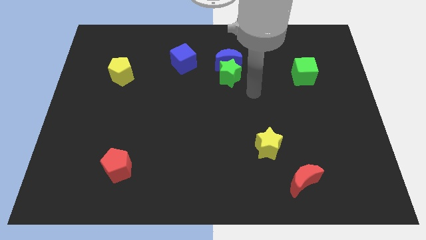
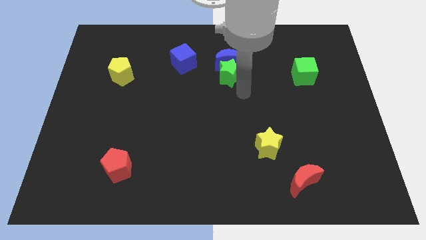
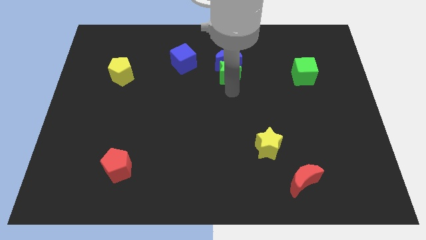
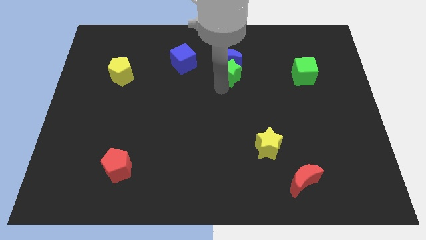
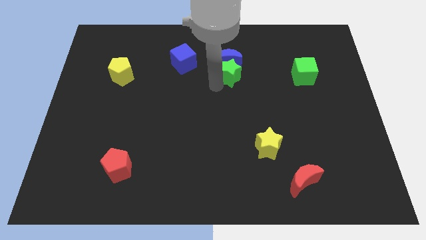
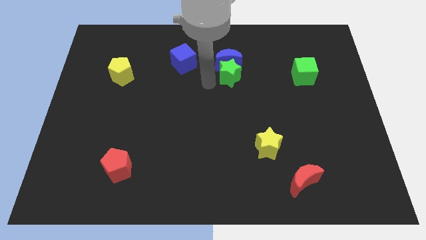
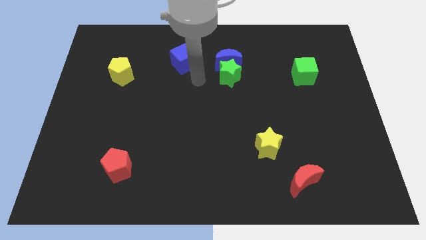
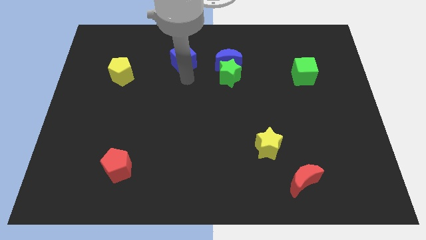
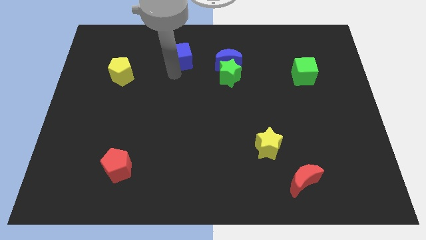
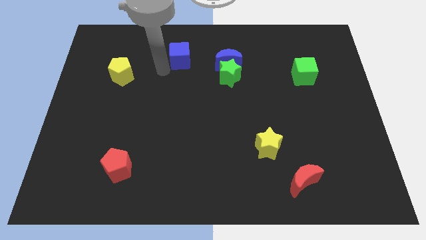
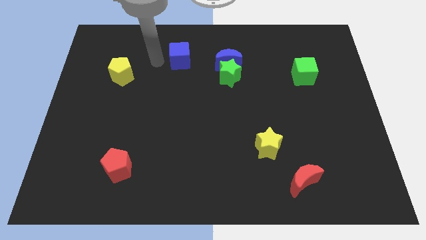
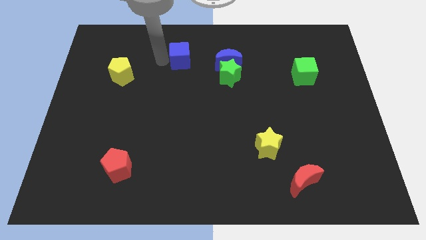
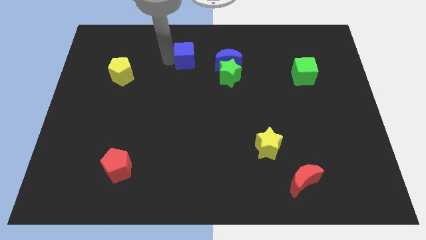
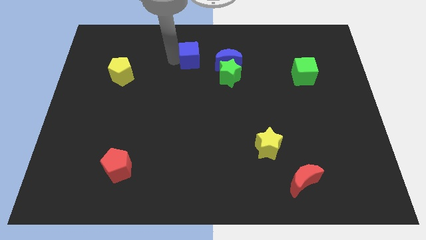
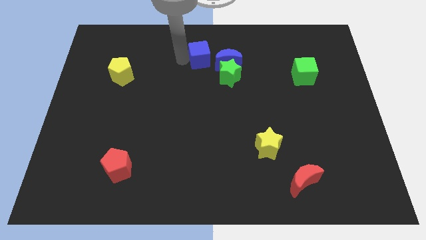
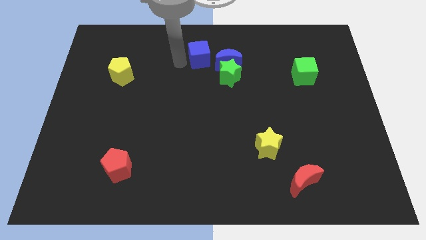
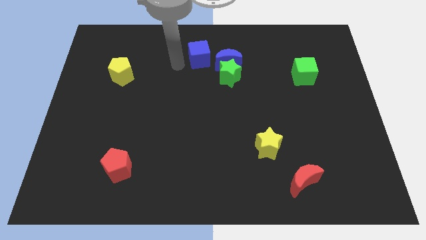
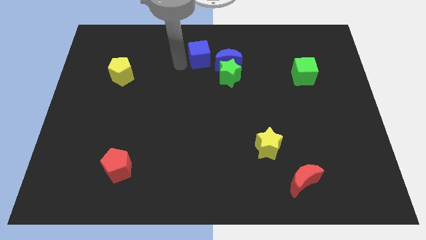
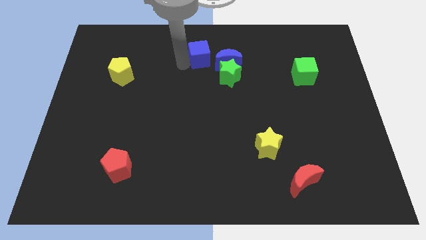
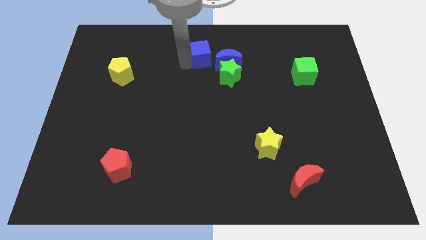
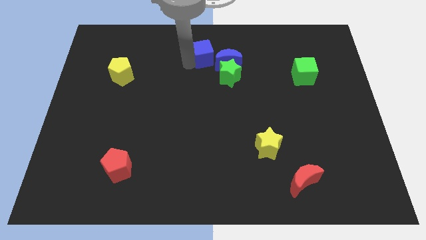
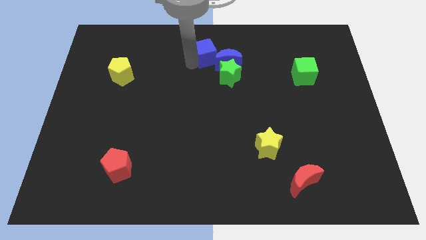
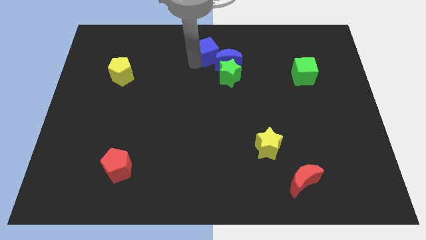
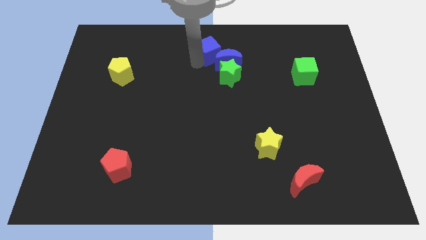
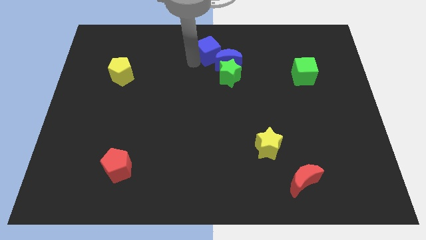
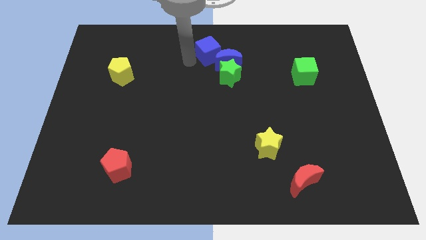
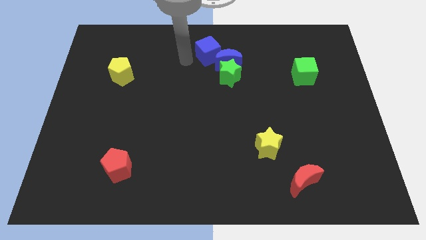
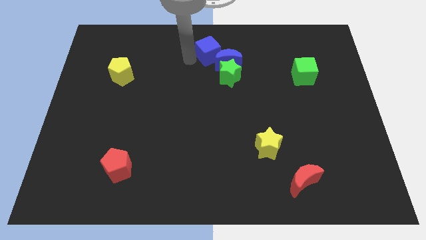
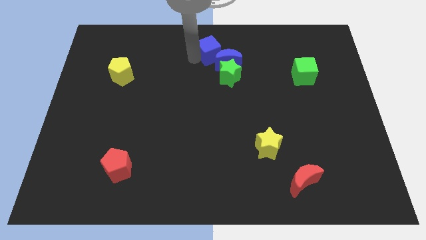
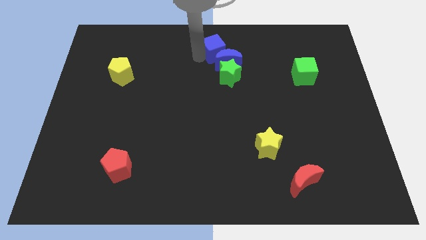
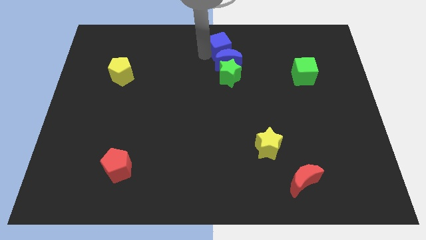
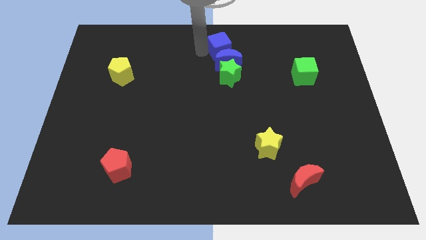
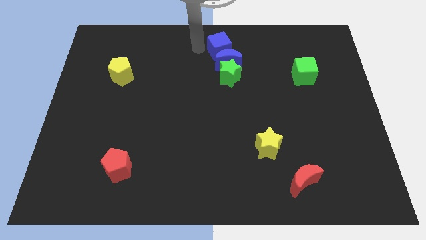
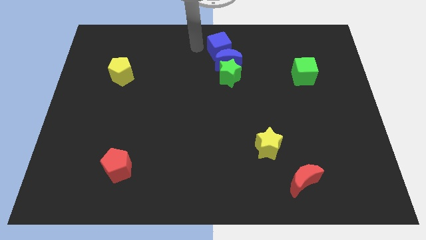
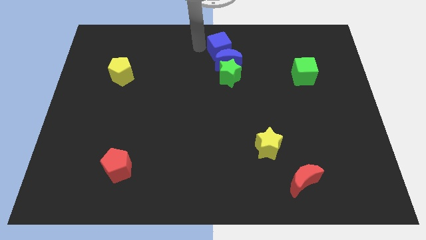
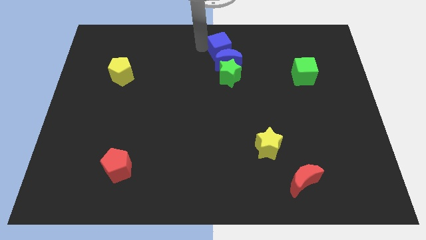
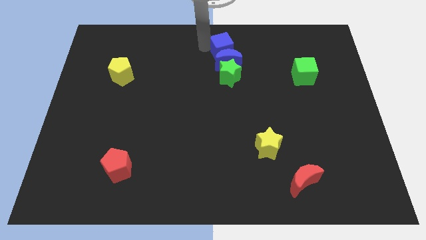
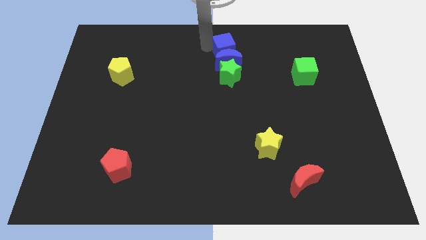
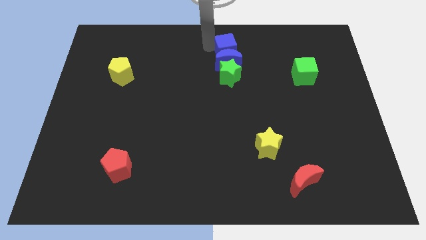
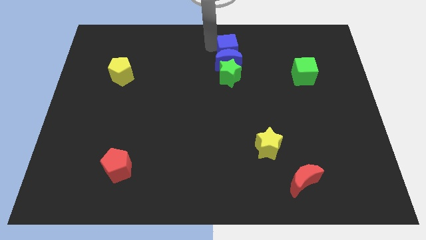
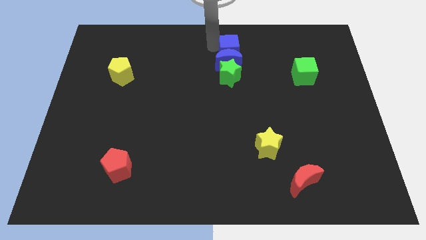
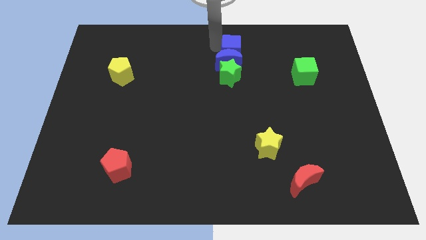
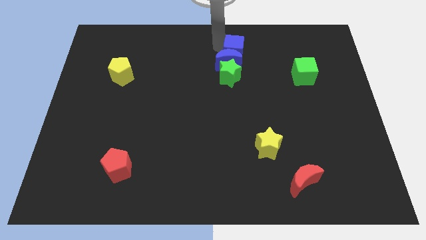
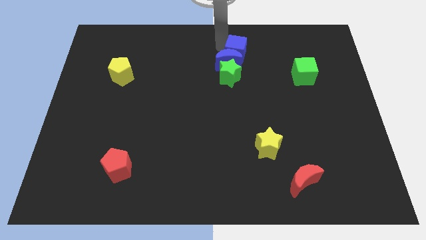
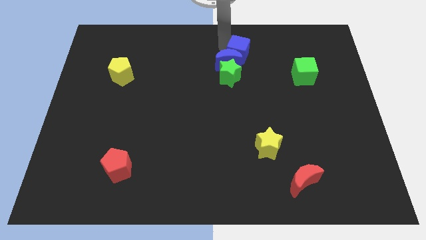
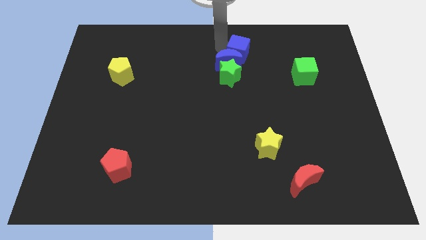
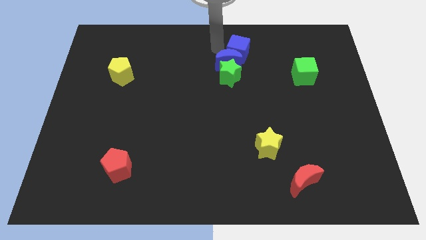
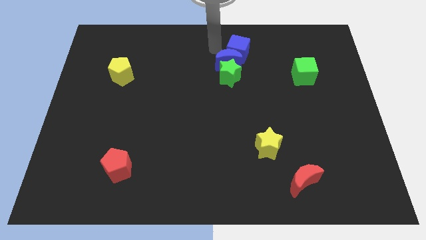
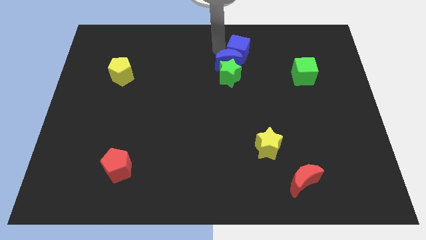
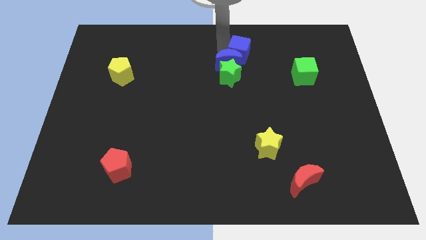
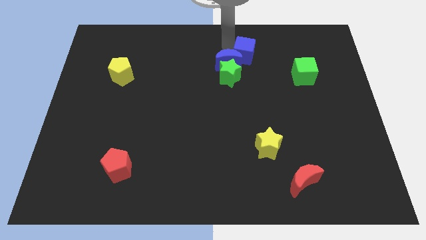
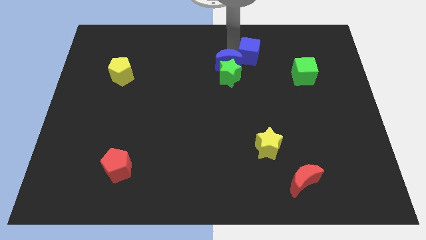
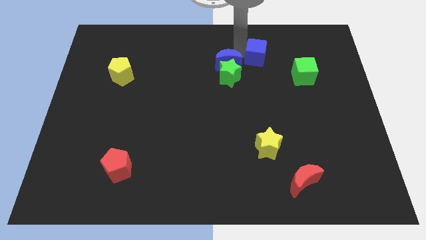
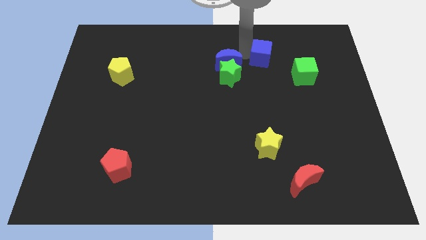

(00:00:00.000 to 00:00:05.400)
move the blue cube right

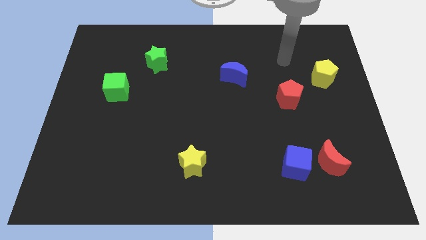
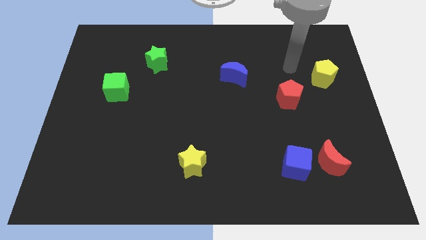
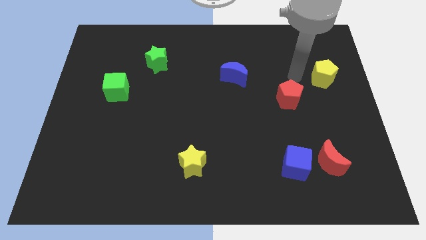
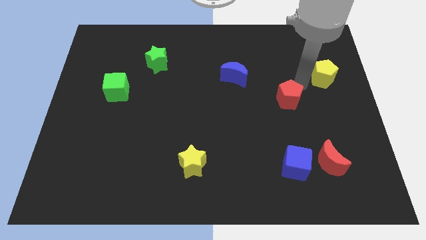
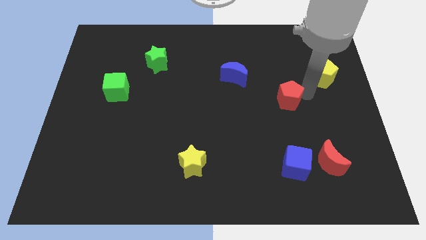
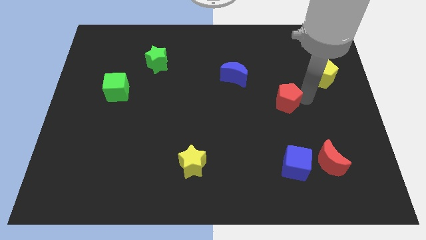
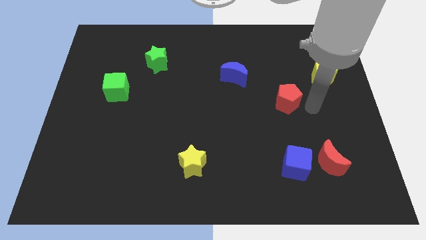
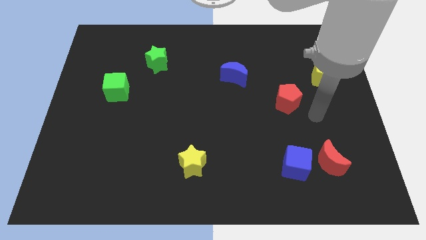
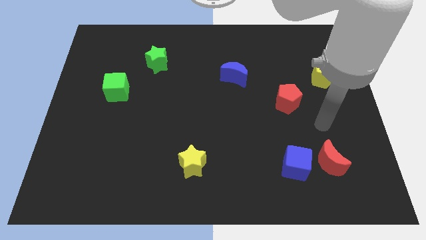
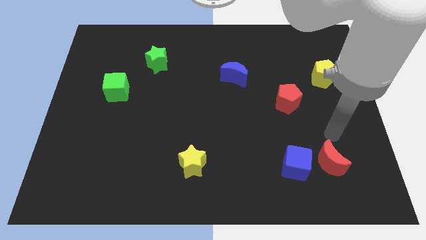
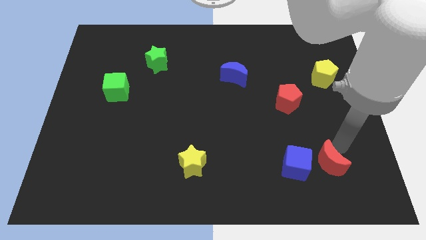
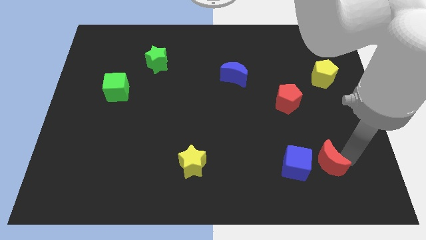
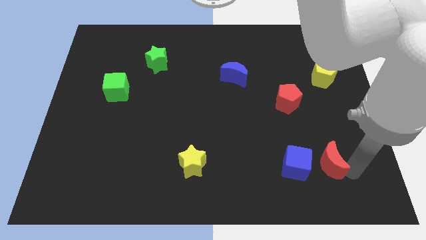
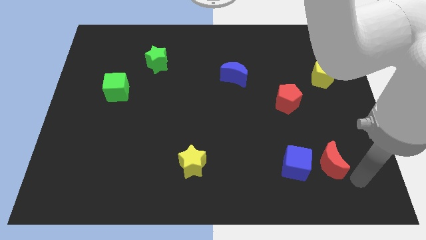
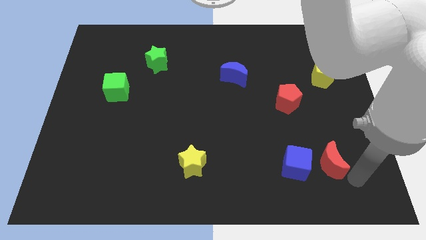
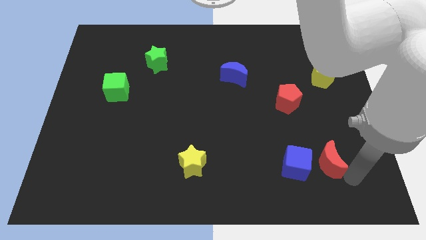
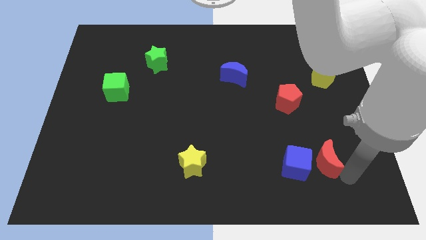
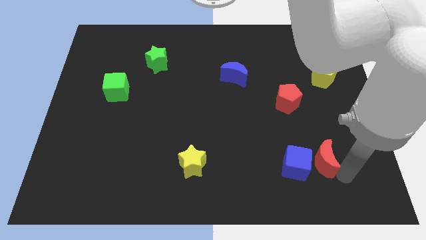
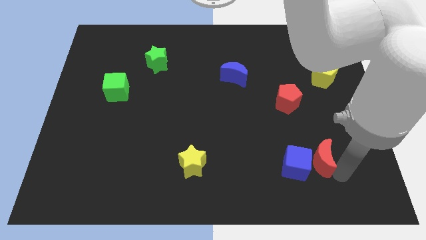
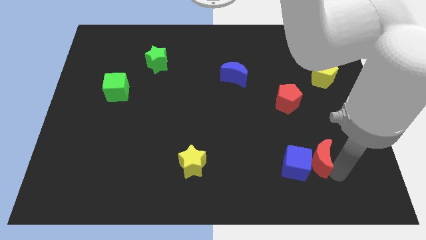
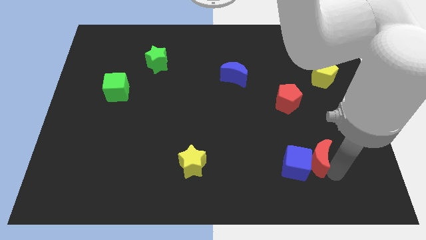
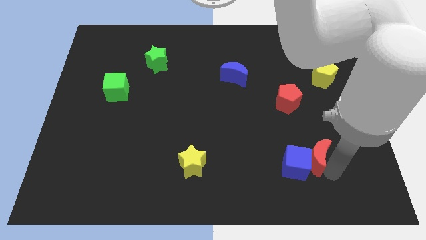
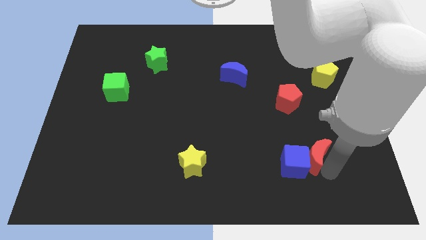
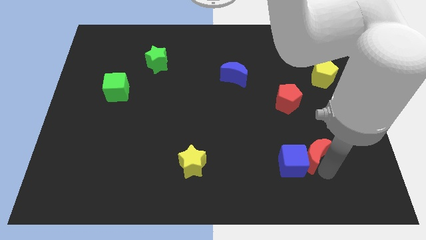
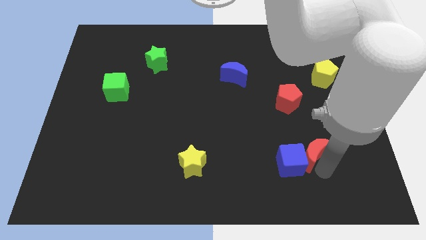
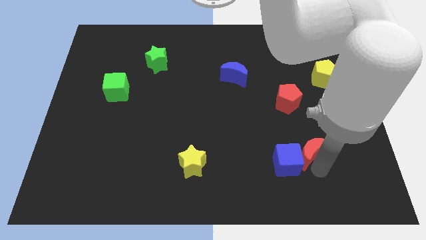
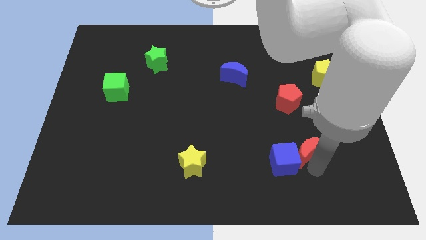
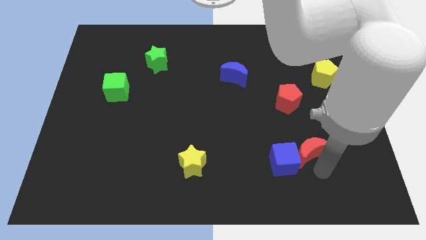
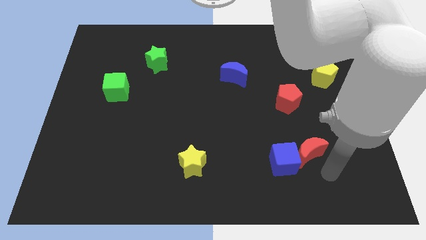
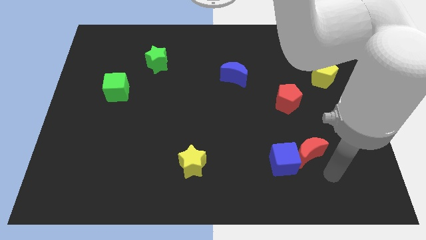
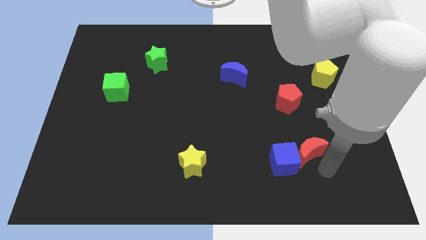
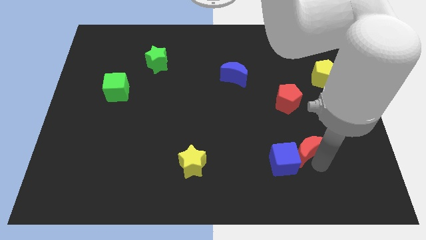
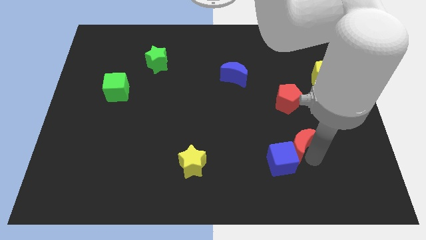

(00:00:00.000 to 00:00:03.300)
slightly slide the red moon up and left diagonally
